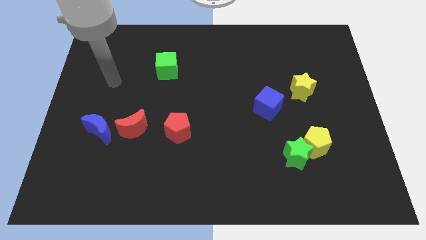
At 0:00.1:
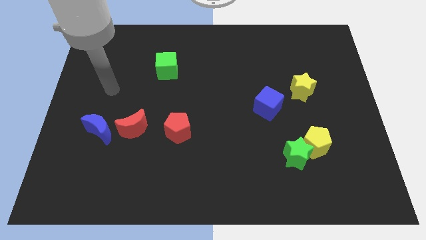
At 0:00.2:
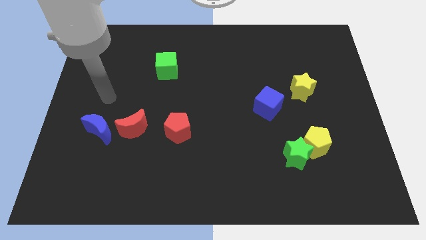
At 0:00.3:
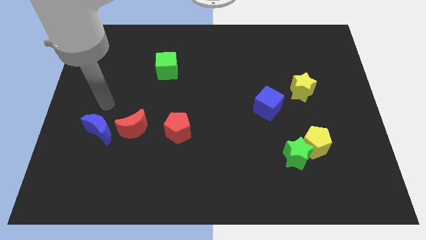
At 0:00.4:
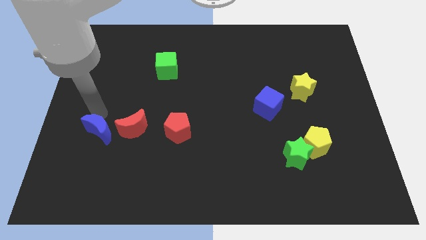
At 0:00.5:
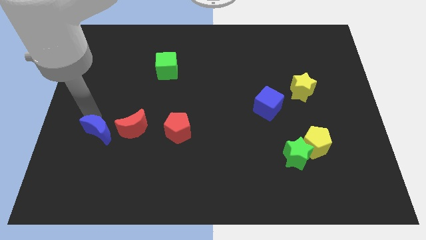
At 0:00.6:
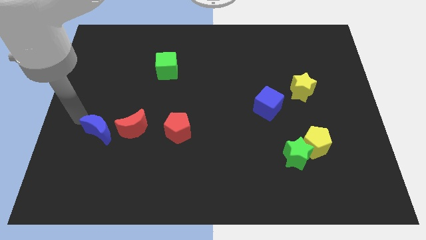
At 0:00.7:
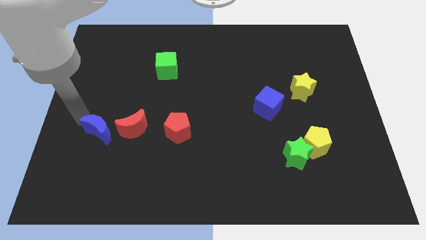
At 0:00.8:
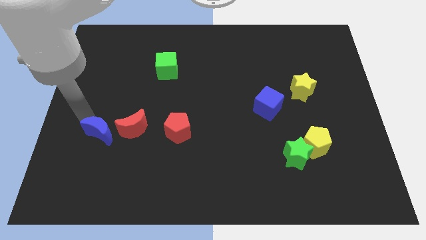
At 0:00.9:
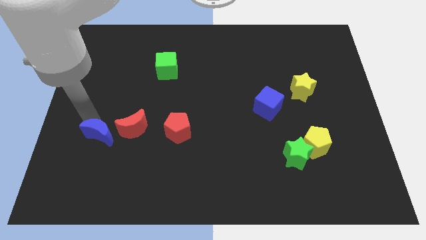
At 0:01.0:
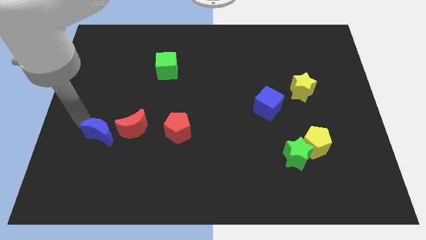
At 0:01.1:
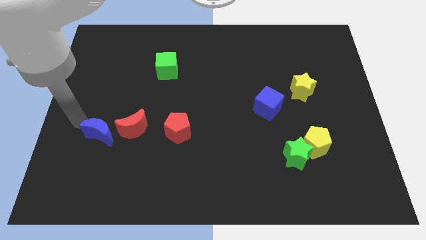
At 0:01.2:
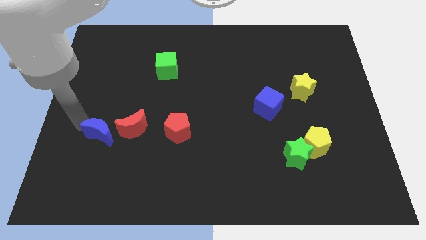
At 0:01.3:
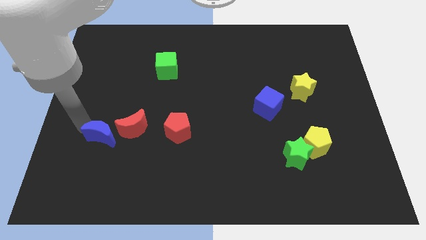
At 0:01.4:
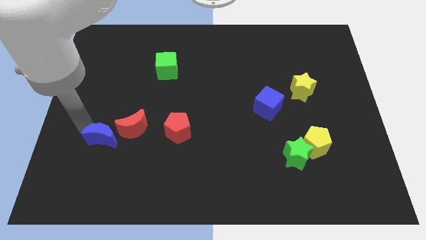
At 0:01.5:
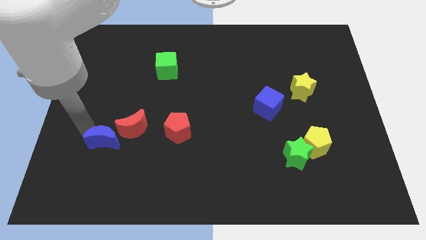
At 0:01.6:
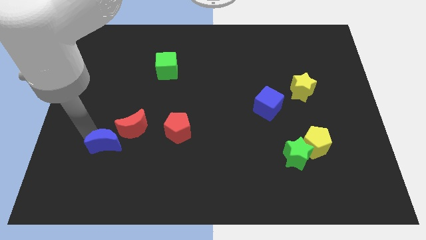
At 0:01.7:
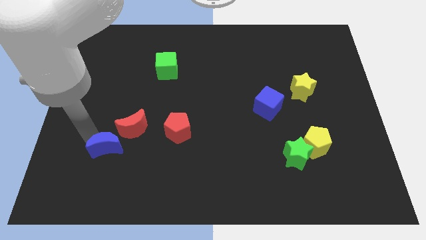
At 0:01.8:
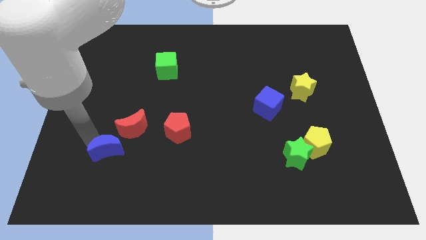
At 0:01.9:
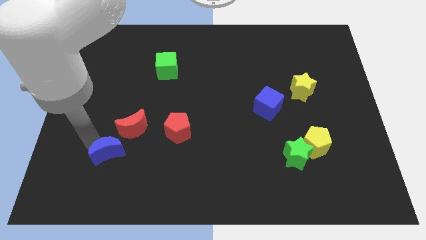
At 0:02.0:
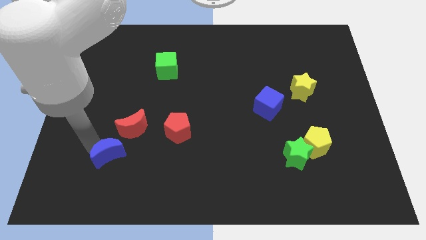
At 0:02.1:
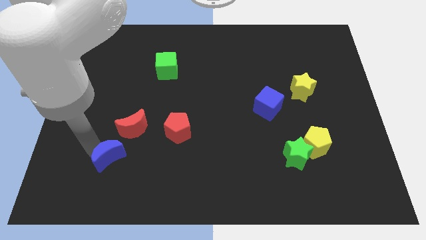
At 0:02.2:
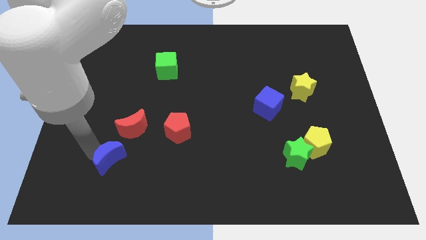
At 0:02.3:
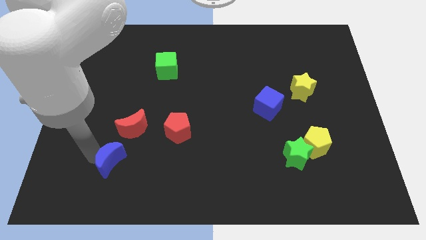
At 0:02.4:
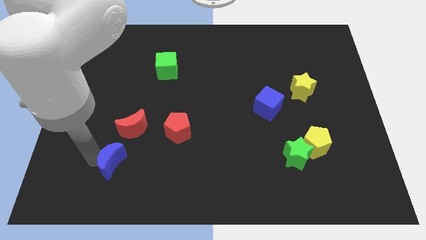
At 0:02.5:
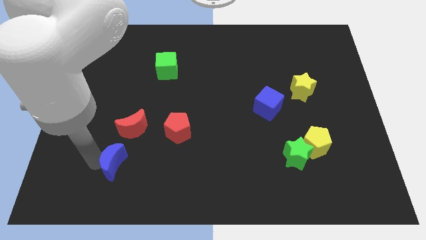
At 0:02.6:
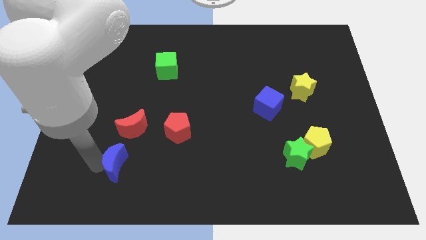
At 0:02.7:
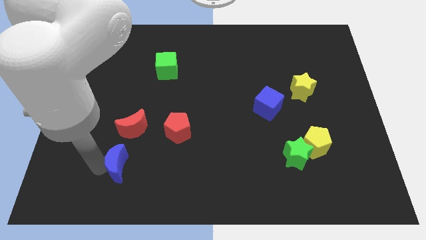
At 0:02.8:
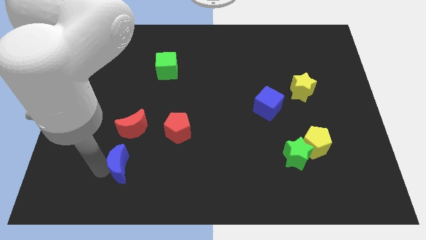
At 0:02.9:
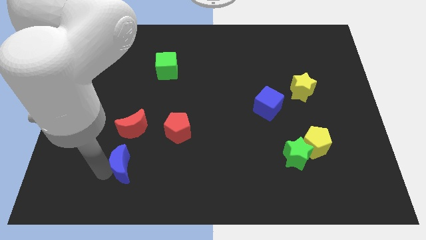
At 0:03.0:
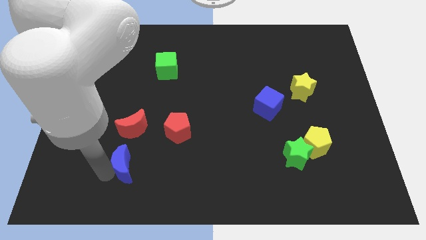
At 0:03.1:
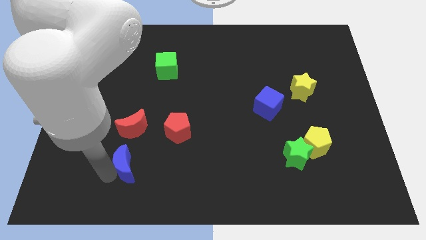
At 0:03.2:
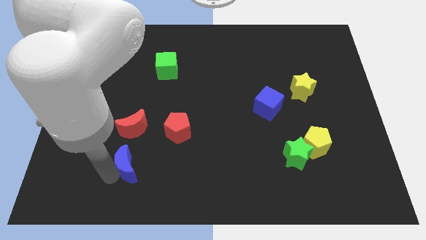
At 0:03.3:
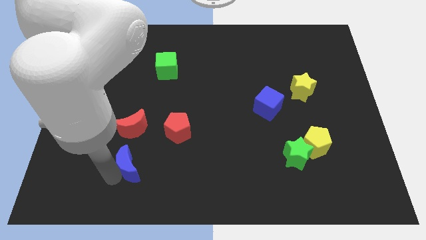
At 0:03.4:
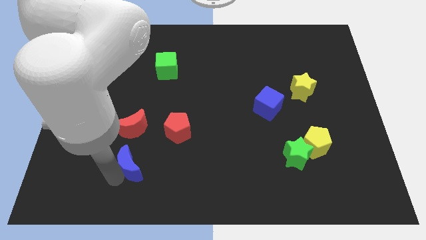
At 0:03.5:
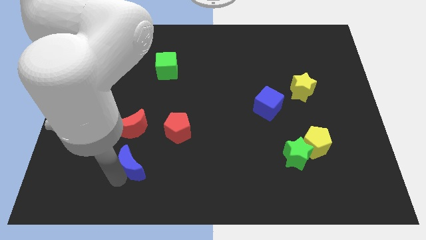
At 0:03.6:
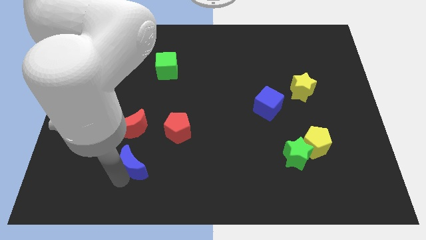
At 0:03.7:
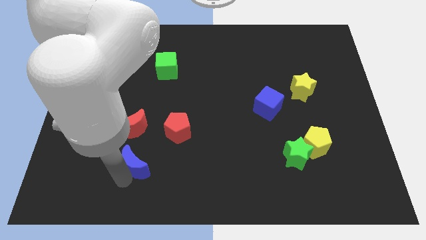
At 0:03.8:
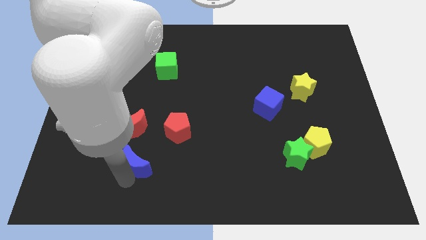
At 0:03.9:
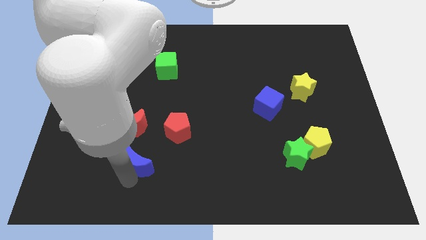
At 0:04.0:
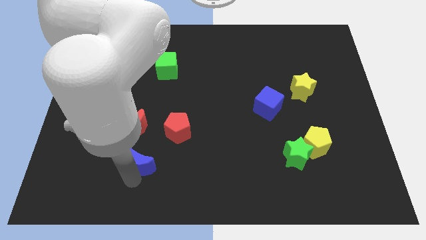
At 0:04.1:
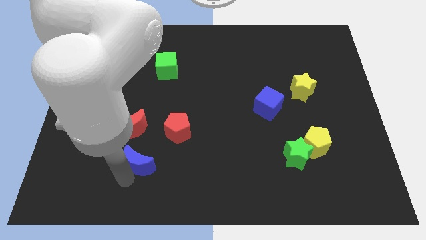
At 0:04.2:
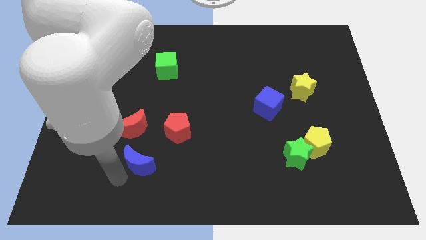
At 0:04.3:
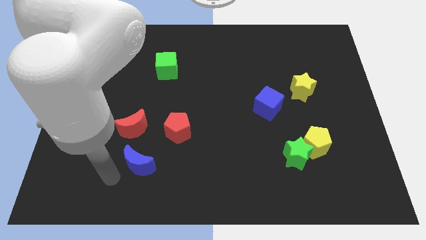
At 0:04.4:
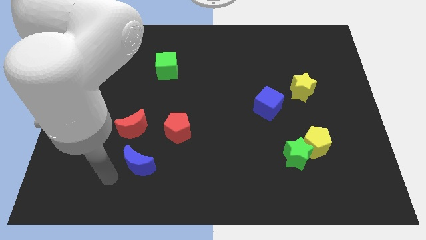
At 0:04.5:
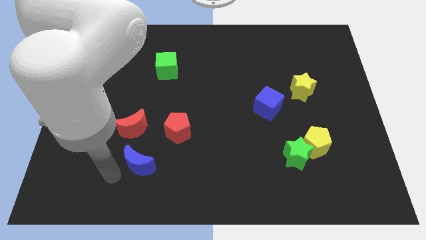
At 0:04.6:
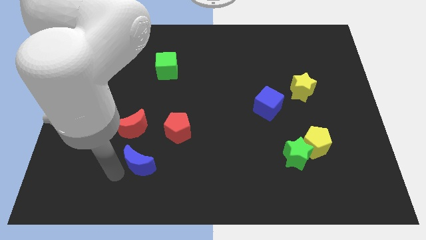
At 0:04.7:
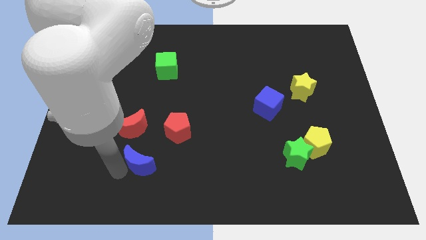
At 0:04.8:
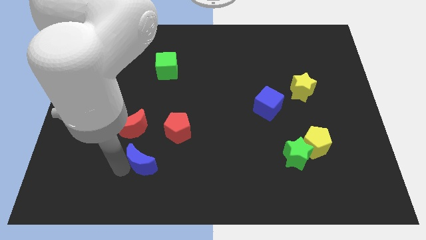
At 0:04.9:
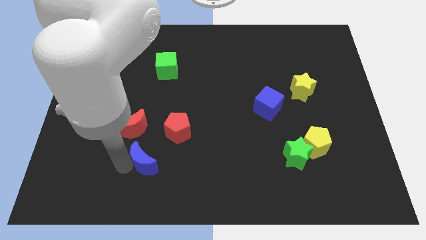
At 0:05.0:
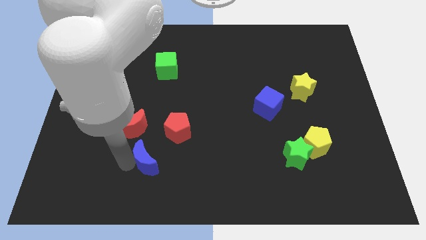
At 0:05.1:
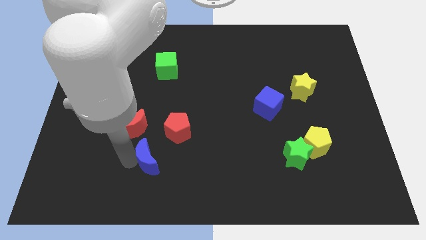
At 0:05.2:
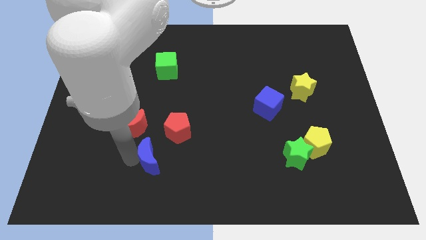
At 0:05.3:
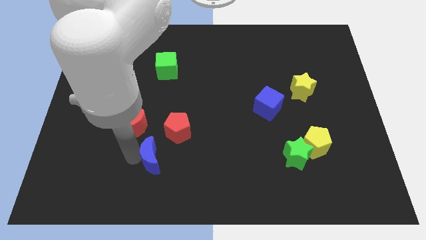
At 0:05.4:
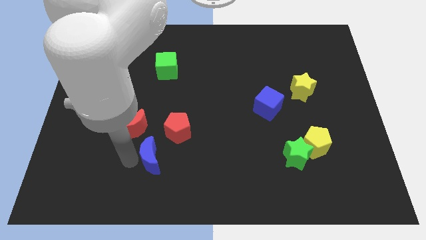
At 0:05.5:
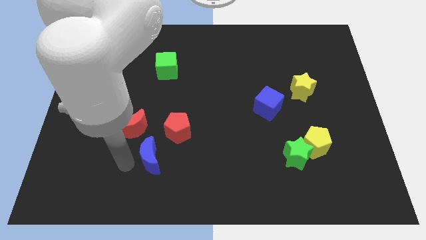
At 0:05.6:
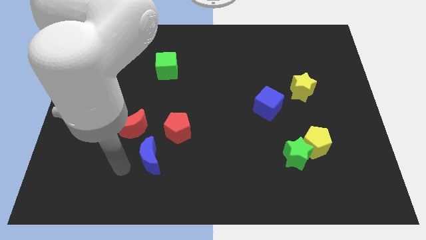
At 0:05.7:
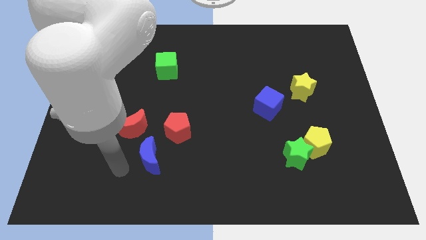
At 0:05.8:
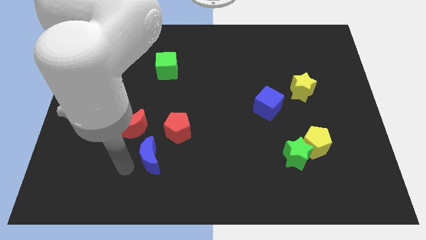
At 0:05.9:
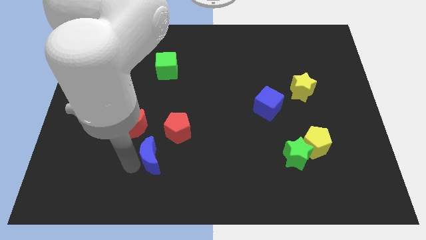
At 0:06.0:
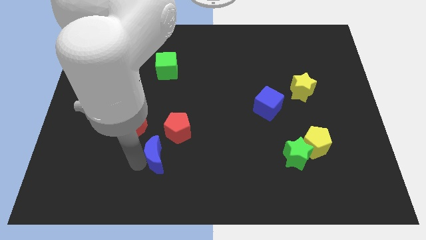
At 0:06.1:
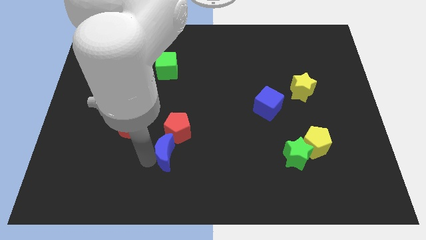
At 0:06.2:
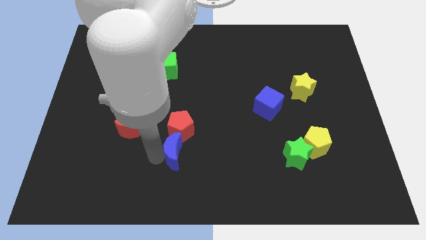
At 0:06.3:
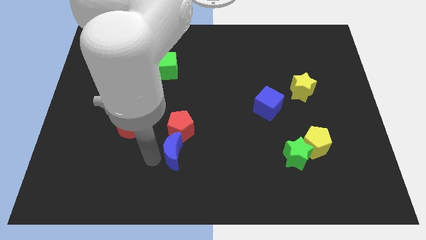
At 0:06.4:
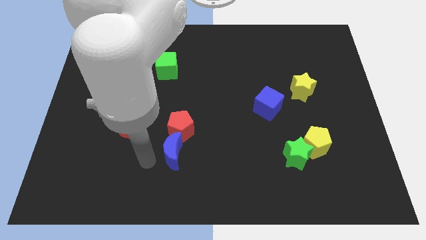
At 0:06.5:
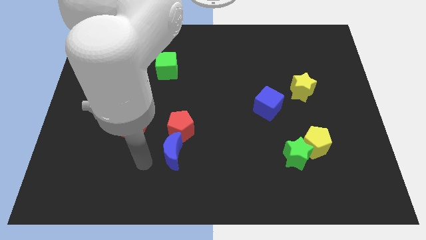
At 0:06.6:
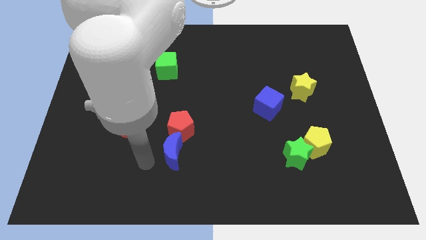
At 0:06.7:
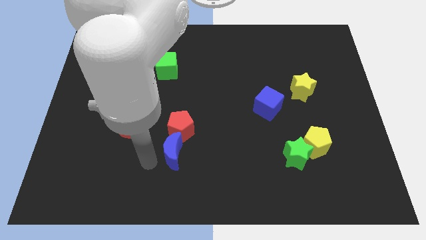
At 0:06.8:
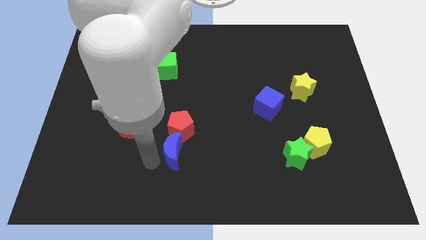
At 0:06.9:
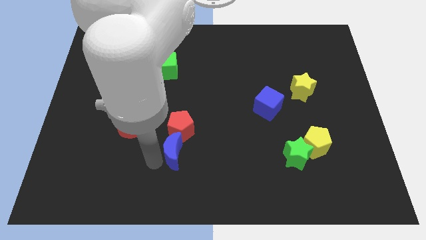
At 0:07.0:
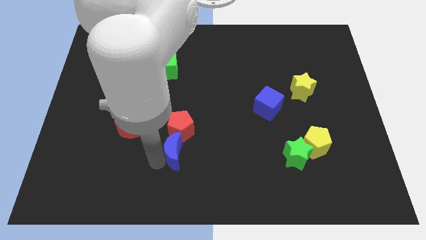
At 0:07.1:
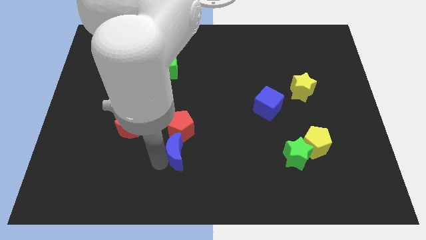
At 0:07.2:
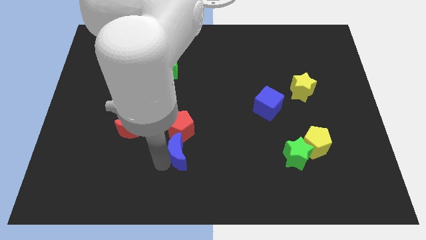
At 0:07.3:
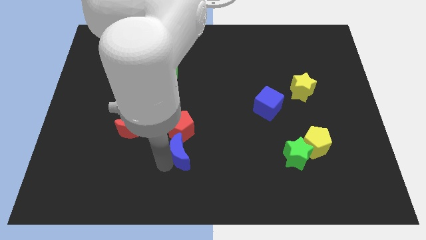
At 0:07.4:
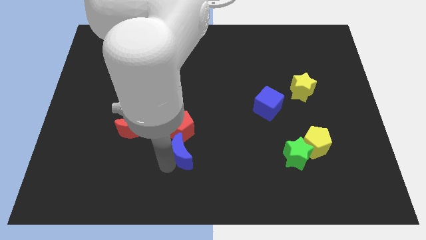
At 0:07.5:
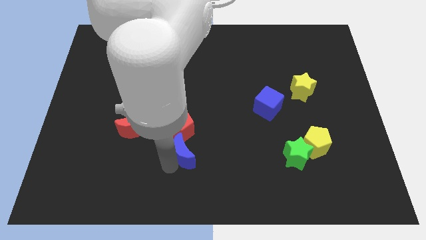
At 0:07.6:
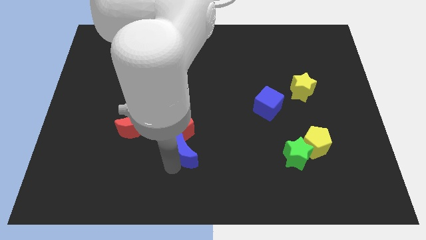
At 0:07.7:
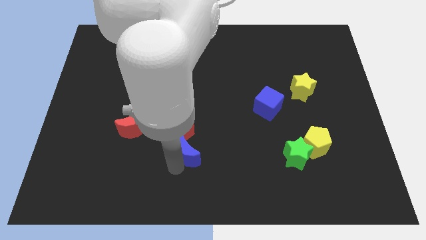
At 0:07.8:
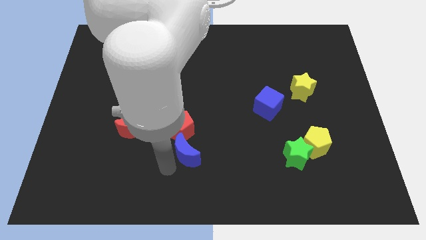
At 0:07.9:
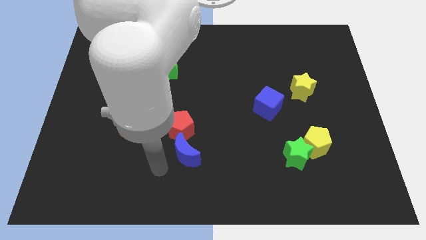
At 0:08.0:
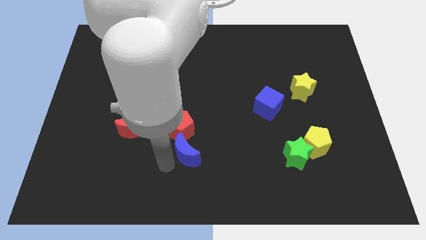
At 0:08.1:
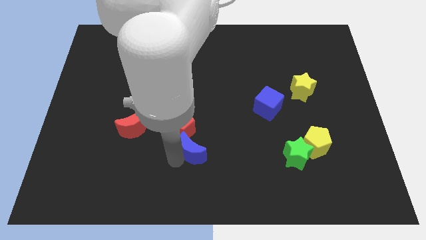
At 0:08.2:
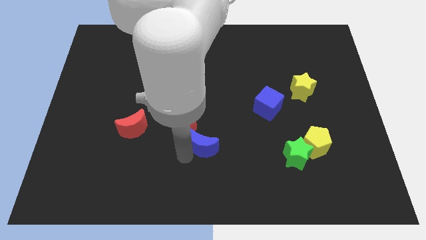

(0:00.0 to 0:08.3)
slide the blue moon right
